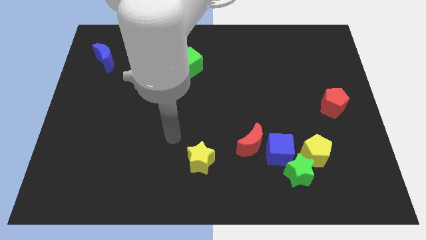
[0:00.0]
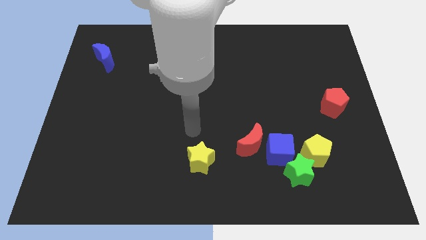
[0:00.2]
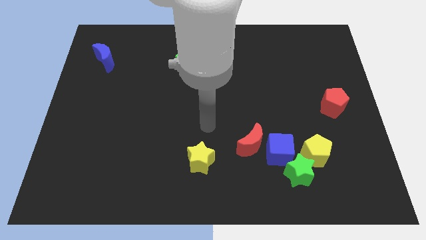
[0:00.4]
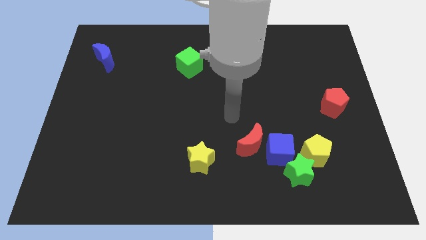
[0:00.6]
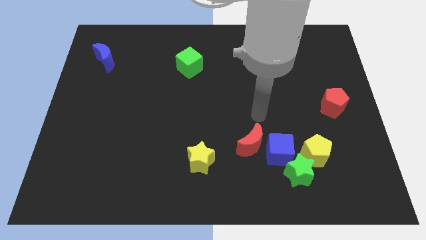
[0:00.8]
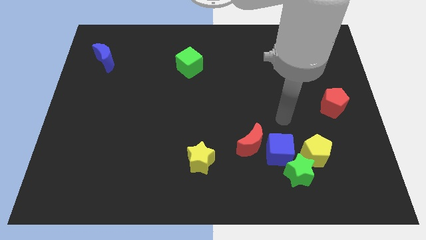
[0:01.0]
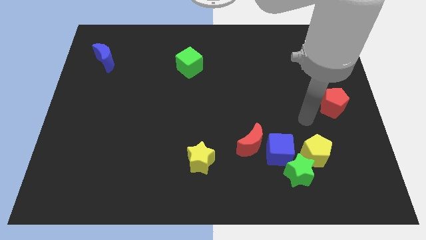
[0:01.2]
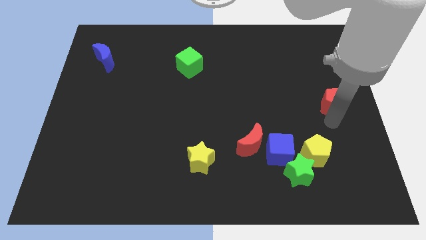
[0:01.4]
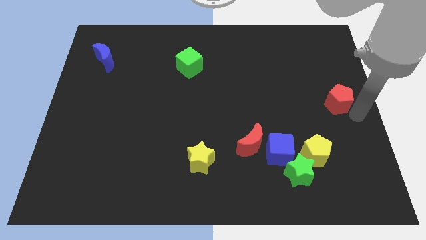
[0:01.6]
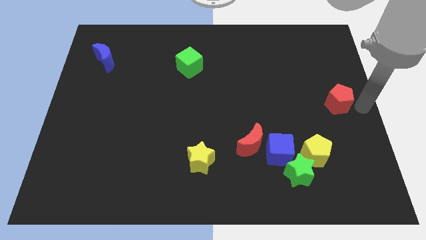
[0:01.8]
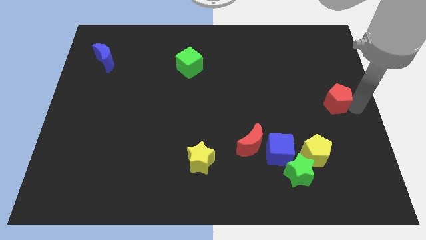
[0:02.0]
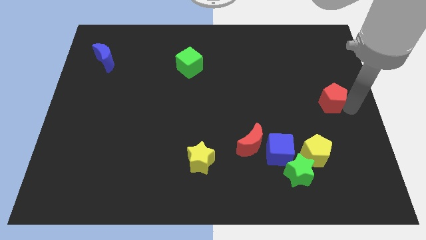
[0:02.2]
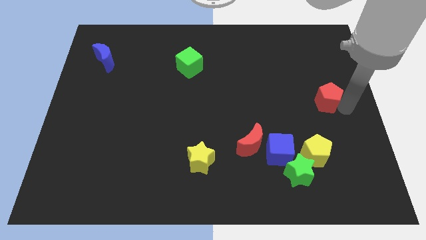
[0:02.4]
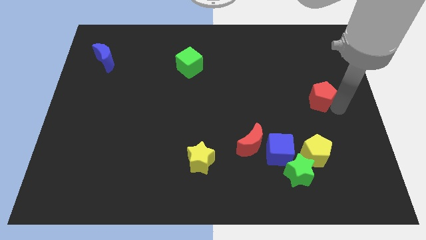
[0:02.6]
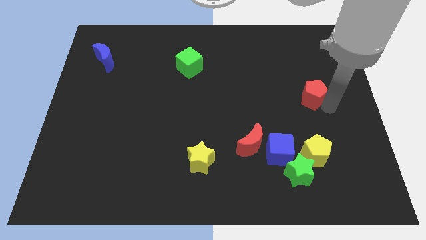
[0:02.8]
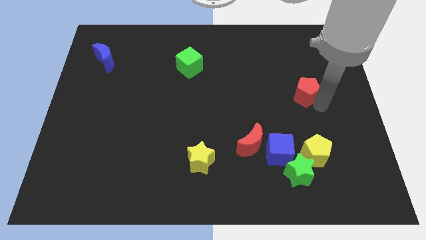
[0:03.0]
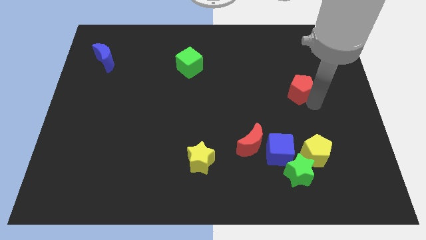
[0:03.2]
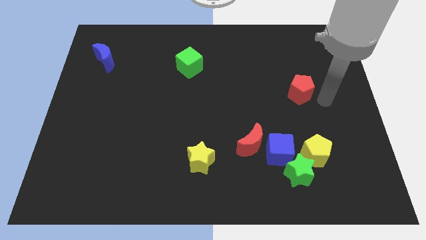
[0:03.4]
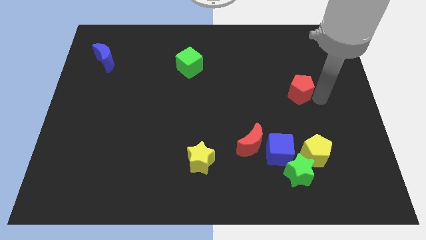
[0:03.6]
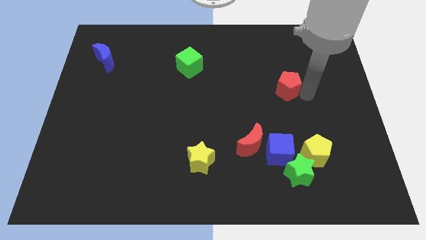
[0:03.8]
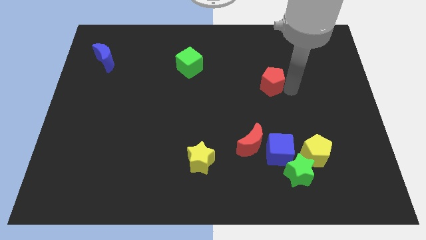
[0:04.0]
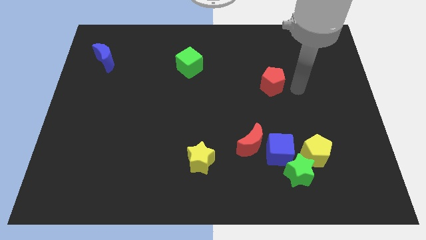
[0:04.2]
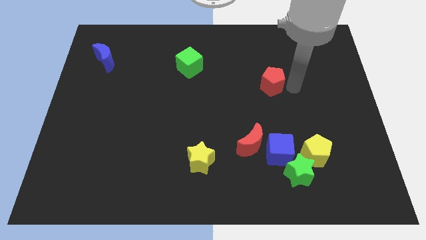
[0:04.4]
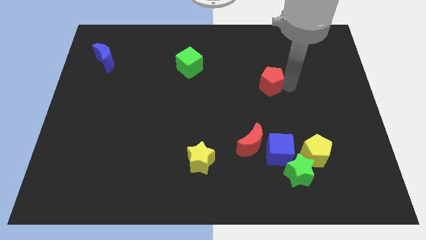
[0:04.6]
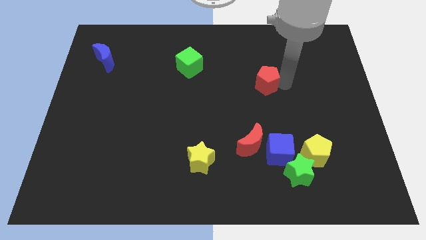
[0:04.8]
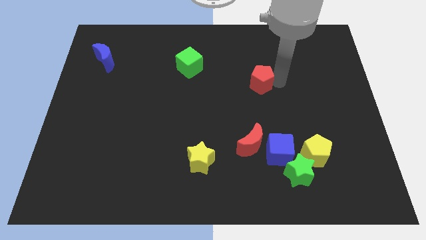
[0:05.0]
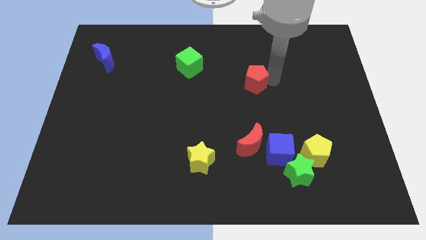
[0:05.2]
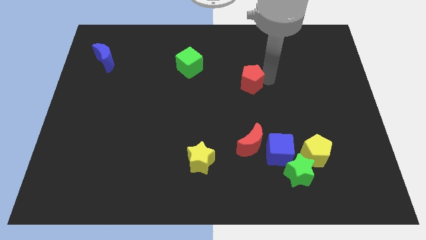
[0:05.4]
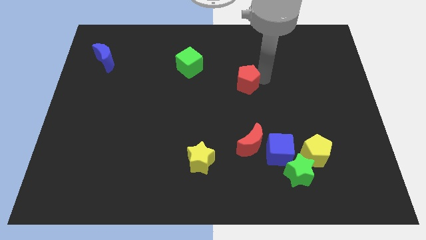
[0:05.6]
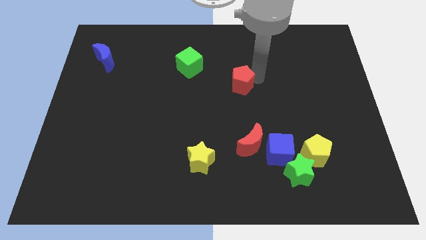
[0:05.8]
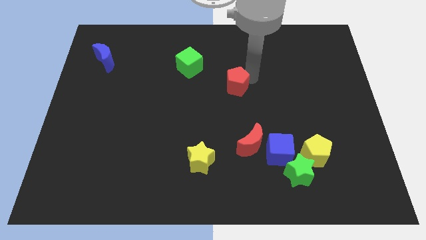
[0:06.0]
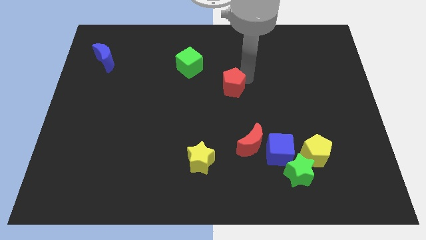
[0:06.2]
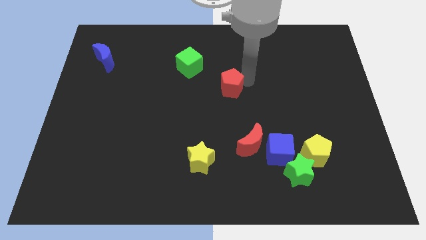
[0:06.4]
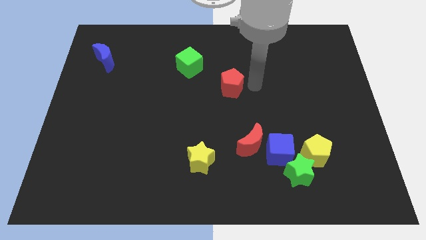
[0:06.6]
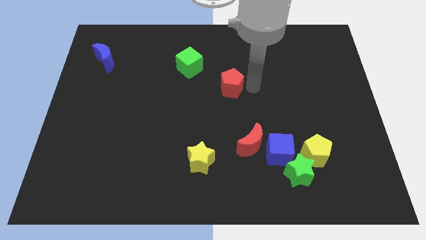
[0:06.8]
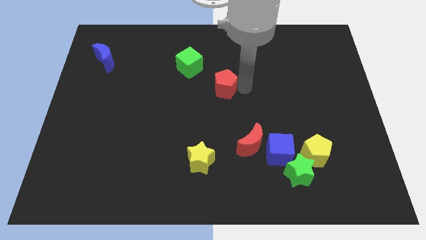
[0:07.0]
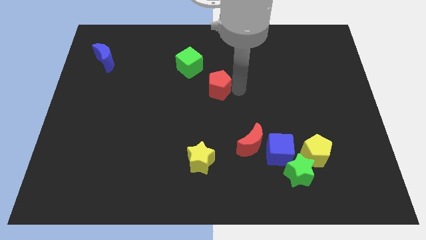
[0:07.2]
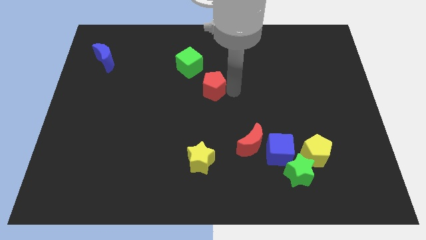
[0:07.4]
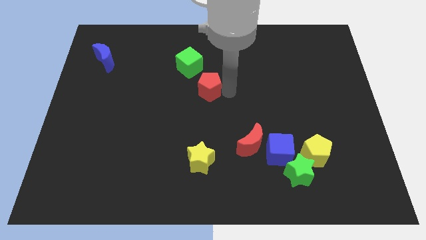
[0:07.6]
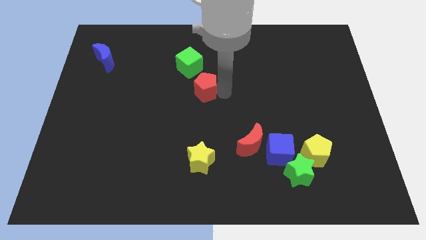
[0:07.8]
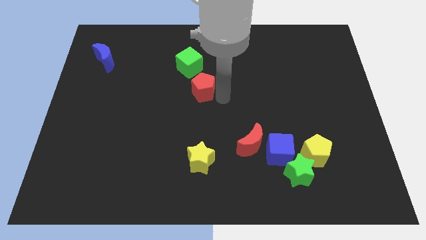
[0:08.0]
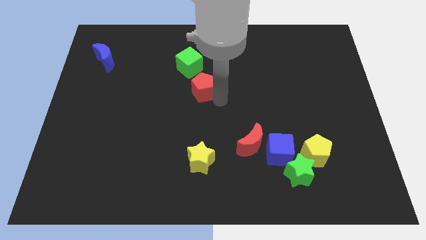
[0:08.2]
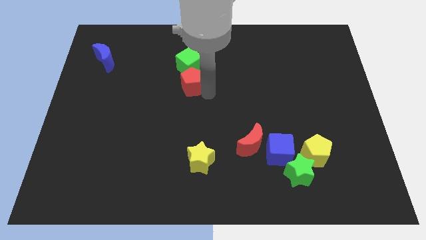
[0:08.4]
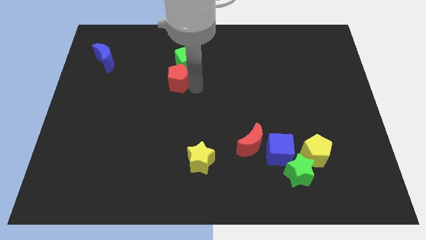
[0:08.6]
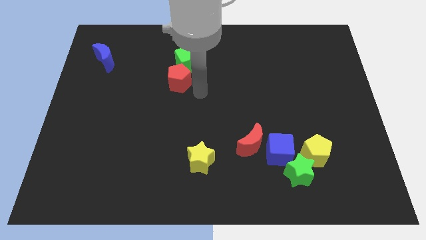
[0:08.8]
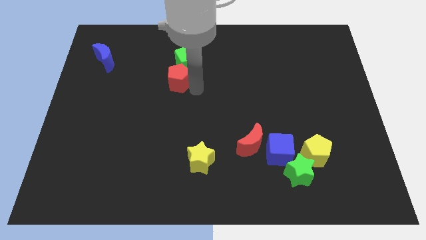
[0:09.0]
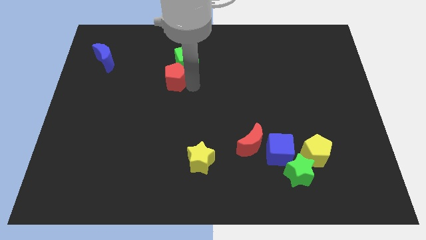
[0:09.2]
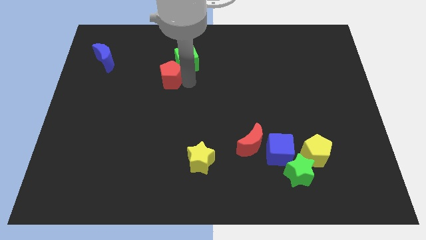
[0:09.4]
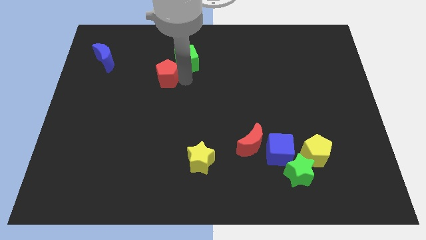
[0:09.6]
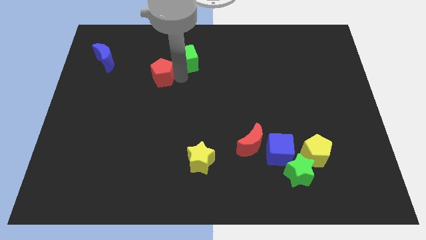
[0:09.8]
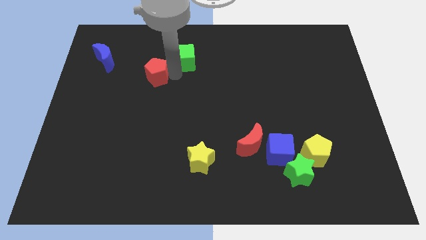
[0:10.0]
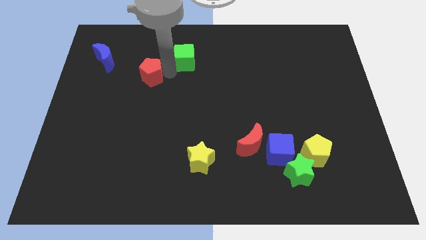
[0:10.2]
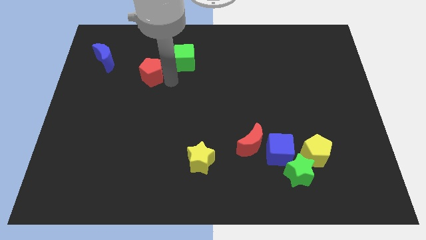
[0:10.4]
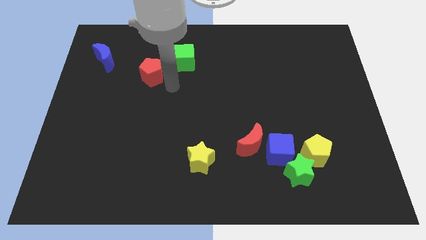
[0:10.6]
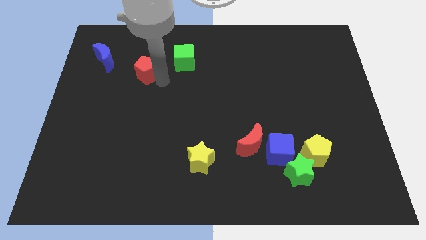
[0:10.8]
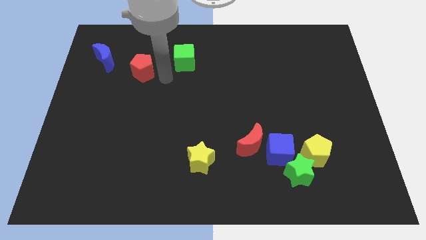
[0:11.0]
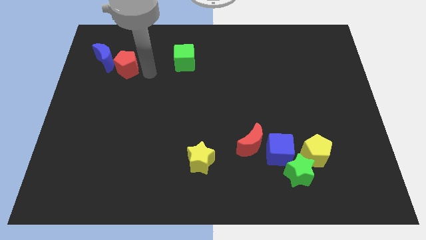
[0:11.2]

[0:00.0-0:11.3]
push the red pentagon to the blue moon

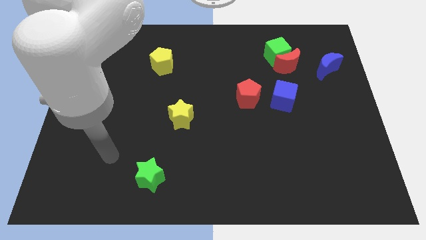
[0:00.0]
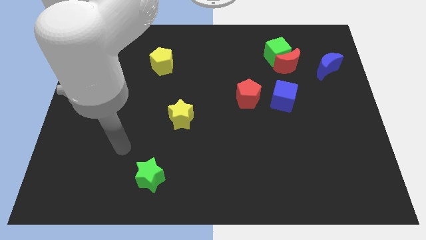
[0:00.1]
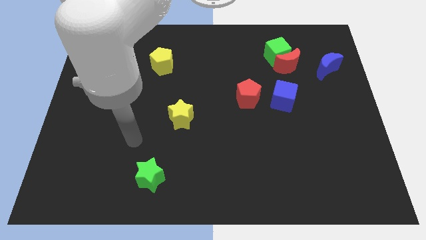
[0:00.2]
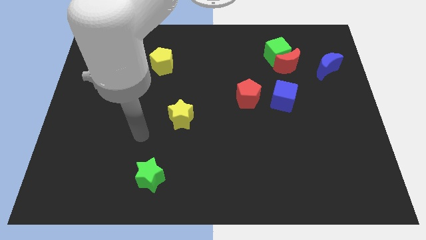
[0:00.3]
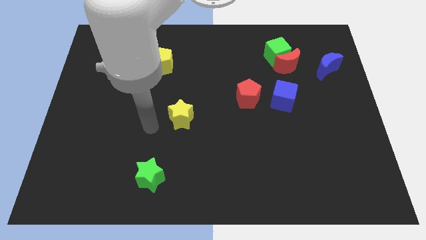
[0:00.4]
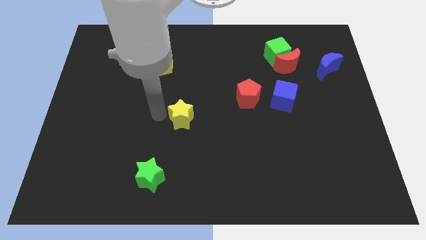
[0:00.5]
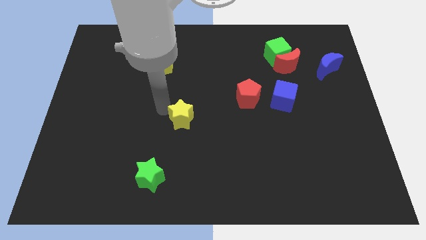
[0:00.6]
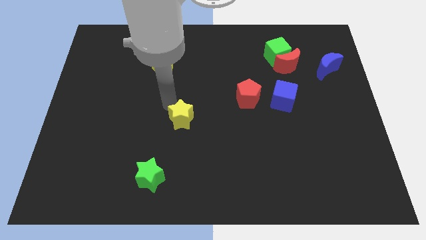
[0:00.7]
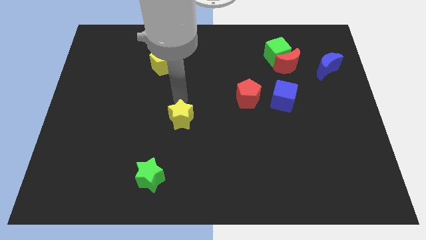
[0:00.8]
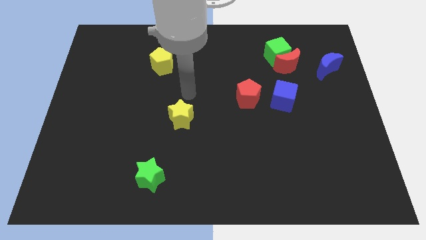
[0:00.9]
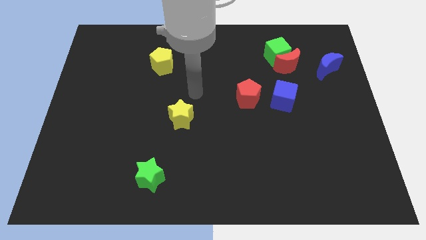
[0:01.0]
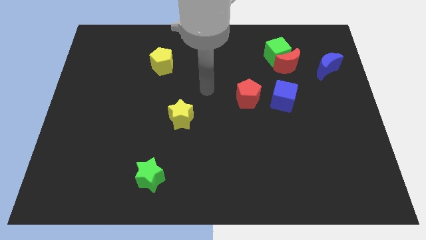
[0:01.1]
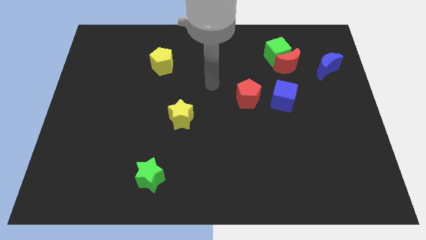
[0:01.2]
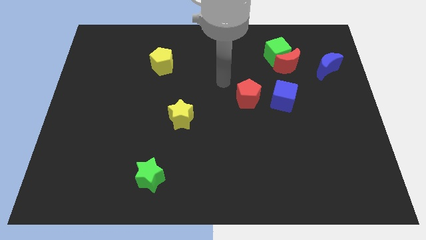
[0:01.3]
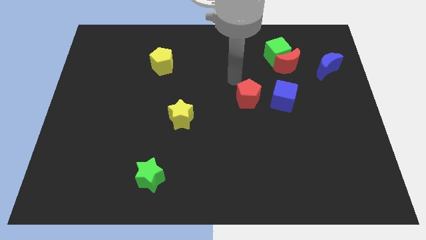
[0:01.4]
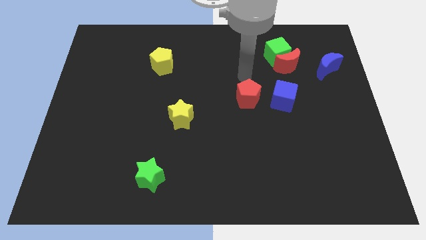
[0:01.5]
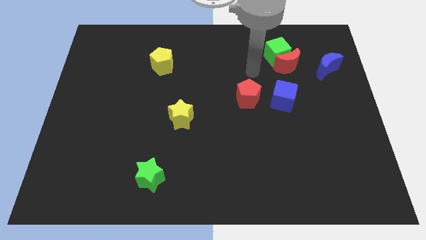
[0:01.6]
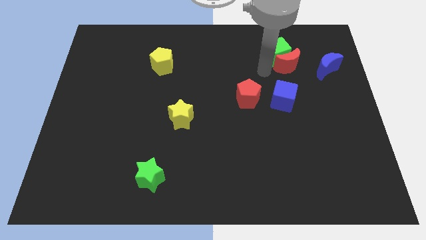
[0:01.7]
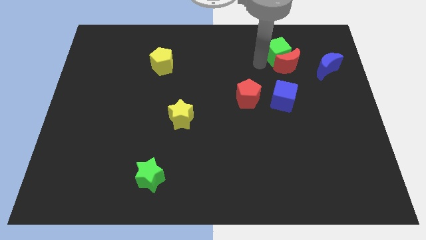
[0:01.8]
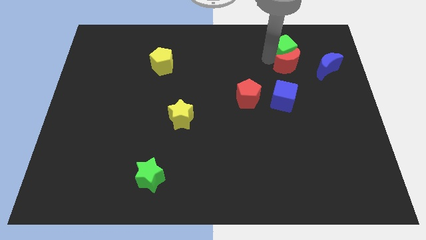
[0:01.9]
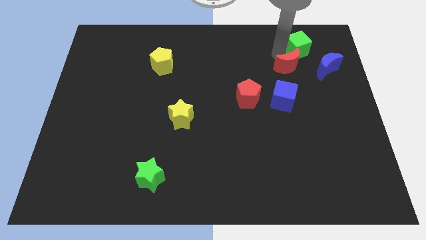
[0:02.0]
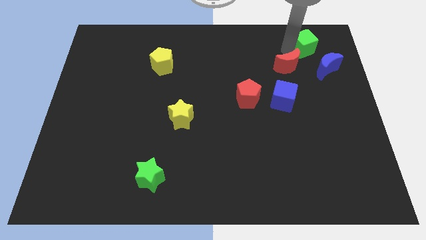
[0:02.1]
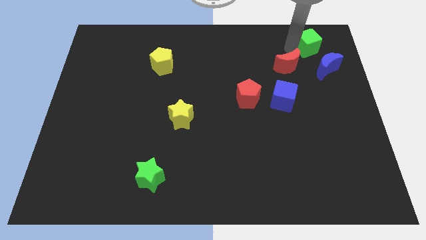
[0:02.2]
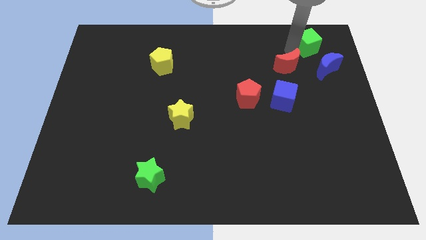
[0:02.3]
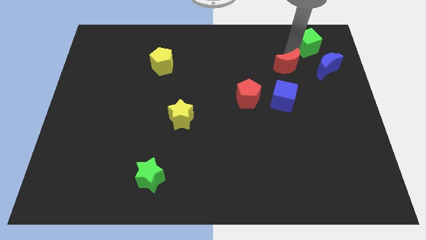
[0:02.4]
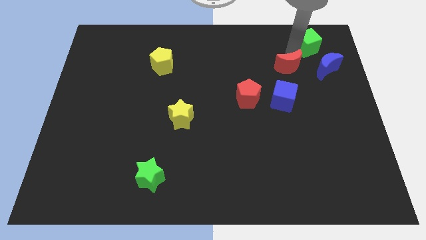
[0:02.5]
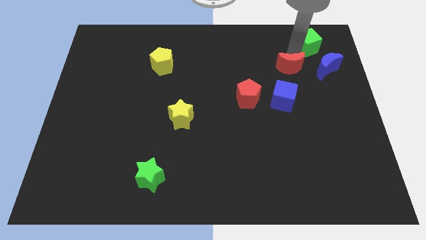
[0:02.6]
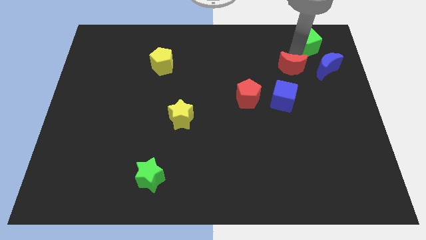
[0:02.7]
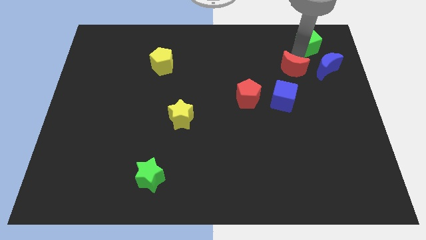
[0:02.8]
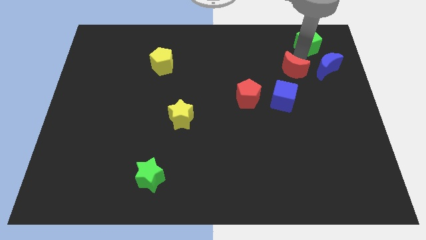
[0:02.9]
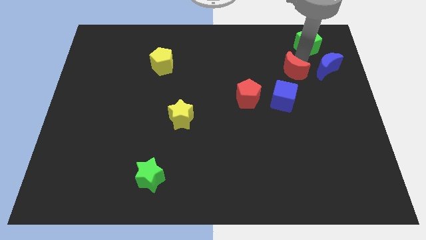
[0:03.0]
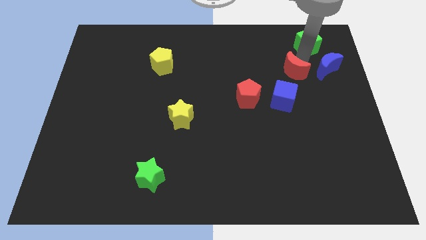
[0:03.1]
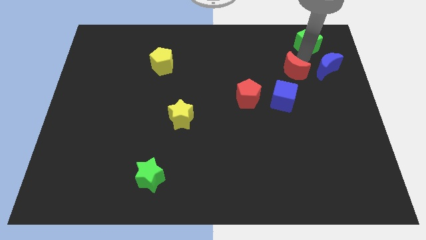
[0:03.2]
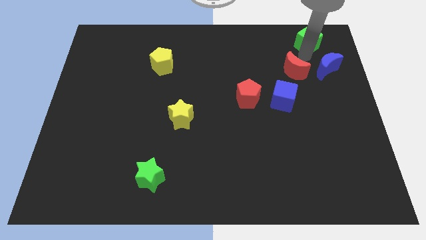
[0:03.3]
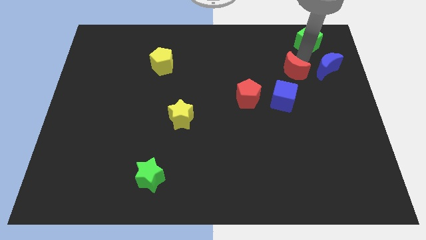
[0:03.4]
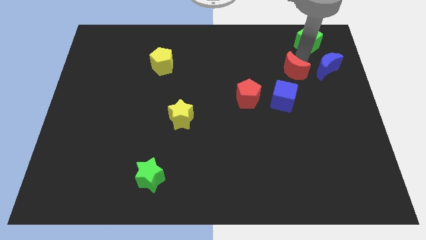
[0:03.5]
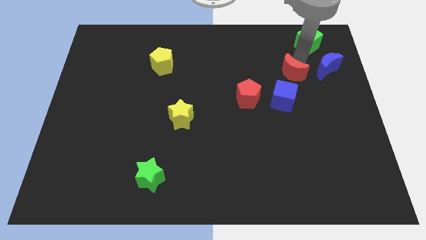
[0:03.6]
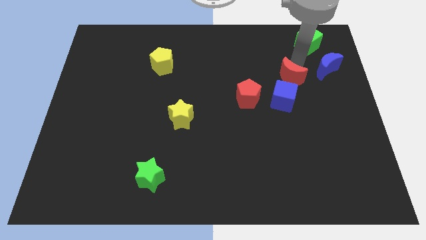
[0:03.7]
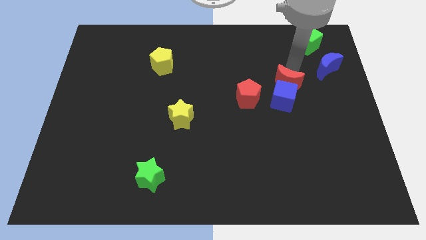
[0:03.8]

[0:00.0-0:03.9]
push the red moon close to the blue cube
